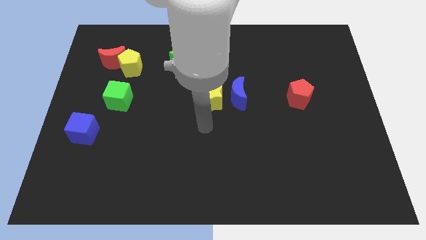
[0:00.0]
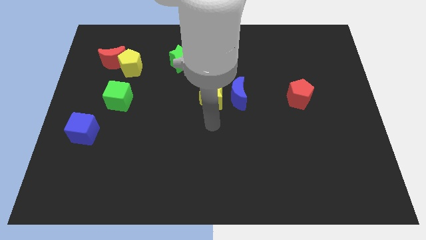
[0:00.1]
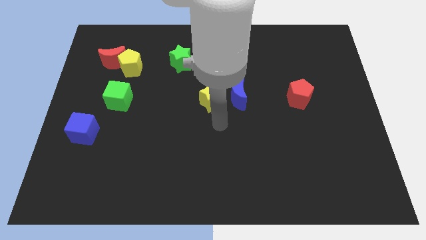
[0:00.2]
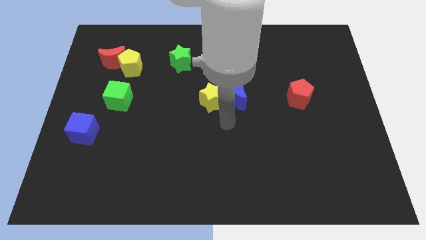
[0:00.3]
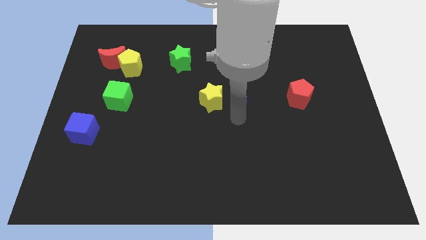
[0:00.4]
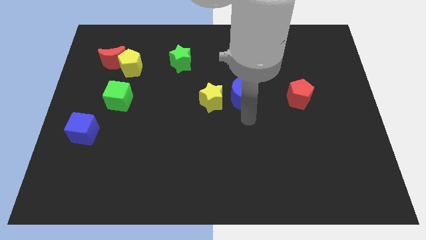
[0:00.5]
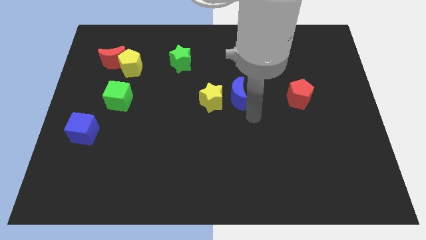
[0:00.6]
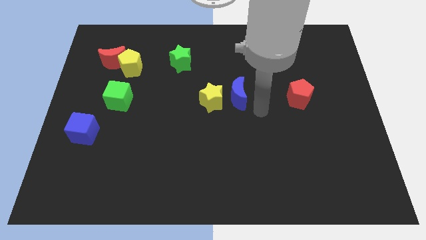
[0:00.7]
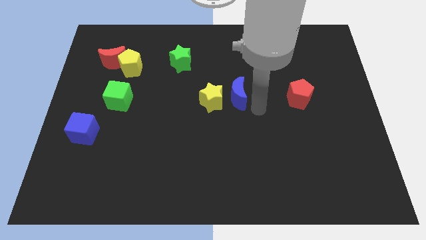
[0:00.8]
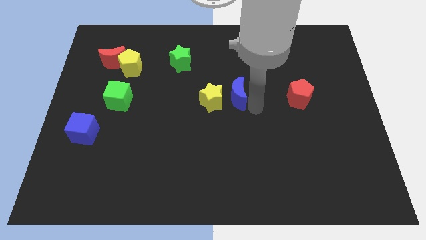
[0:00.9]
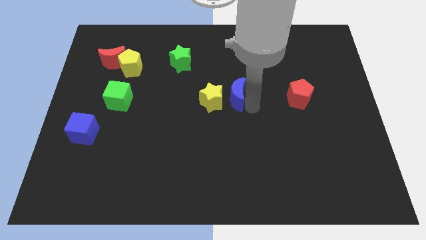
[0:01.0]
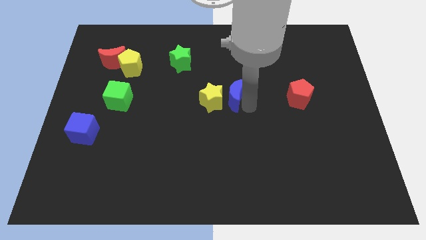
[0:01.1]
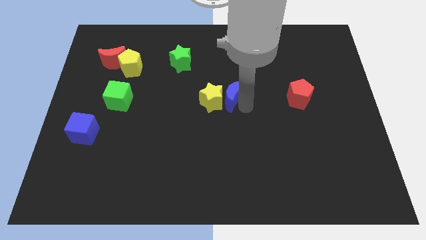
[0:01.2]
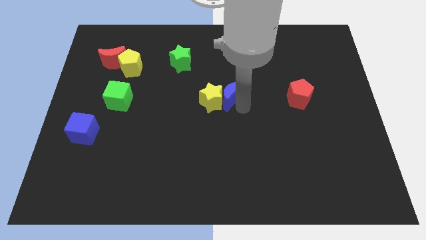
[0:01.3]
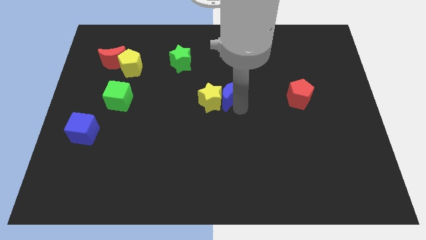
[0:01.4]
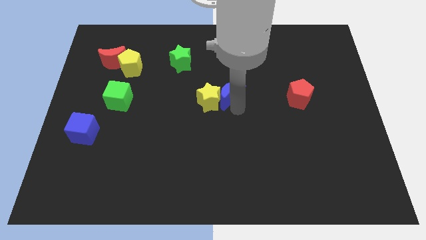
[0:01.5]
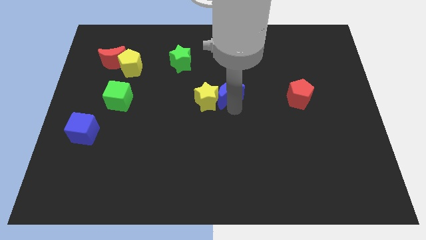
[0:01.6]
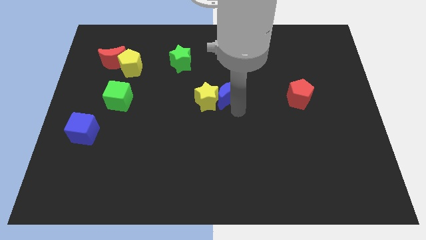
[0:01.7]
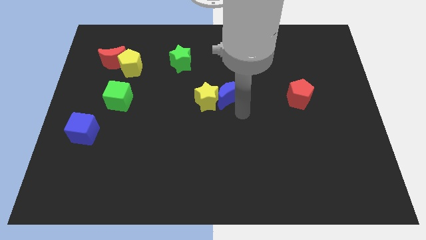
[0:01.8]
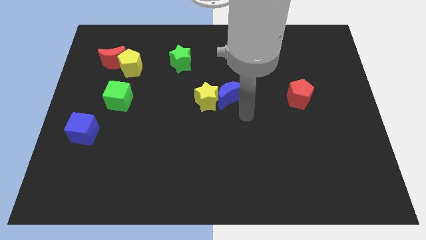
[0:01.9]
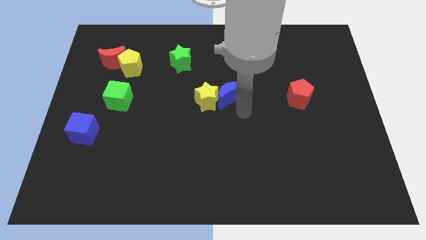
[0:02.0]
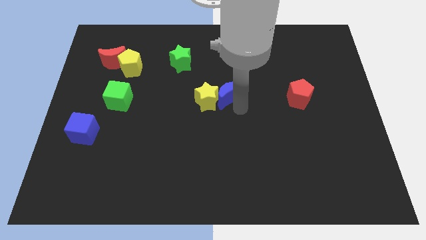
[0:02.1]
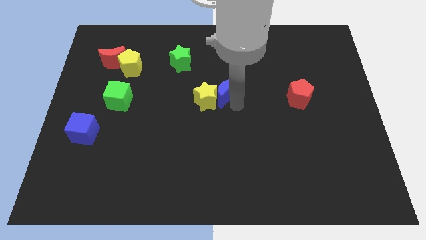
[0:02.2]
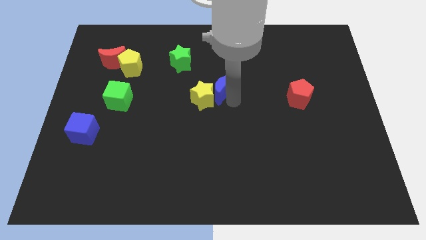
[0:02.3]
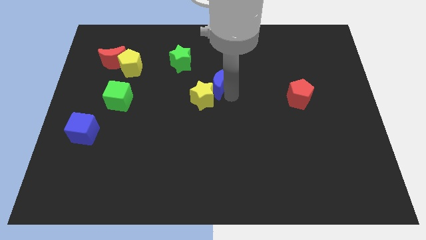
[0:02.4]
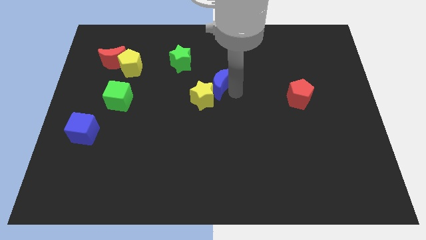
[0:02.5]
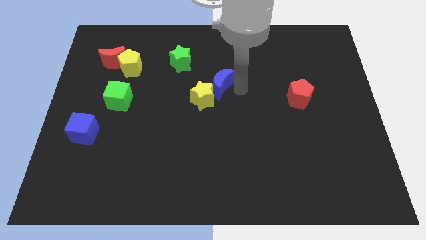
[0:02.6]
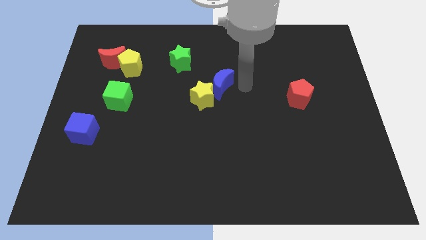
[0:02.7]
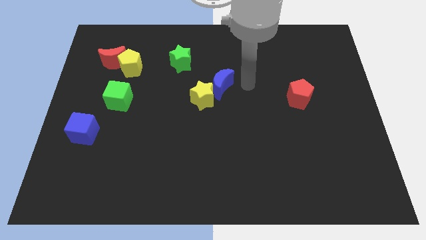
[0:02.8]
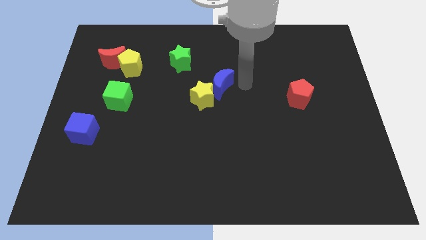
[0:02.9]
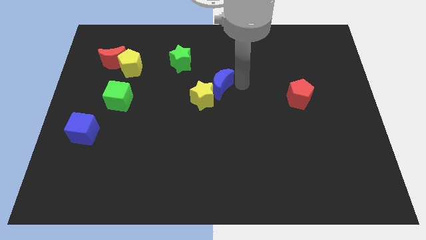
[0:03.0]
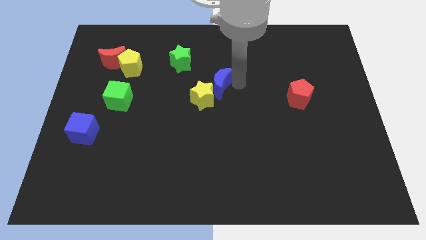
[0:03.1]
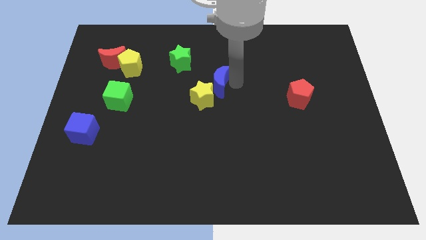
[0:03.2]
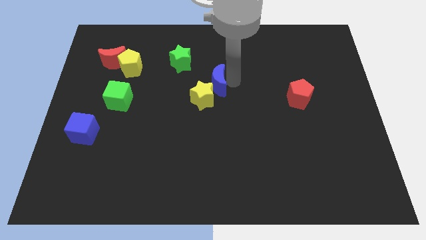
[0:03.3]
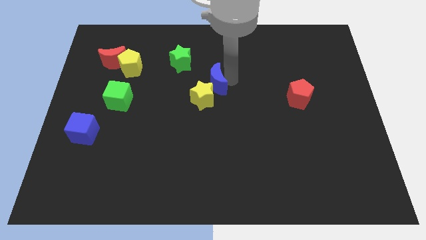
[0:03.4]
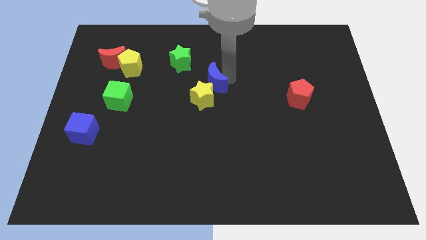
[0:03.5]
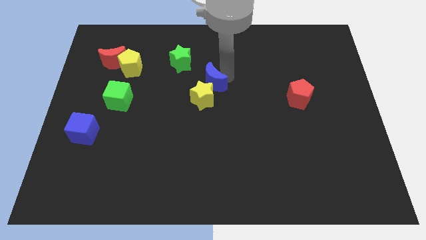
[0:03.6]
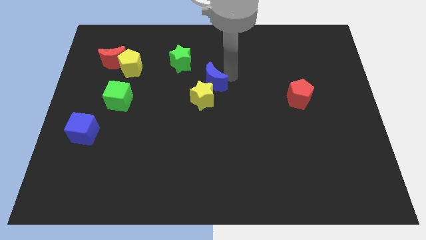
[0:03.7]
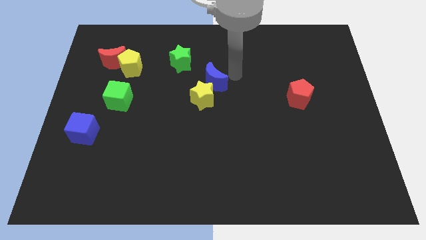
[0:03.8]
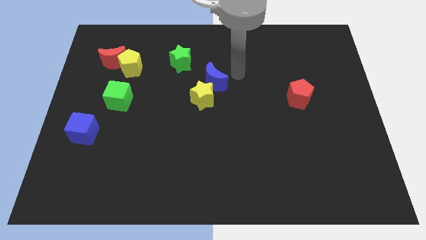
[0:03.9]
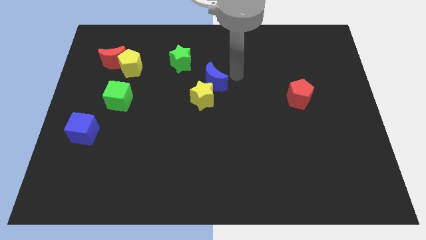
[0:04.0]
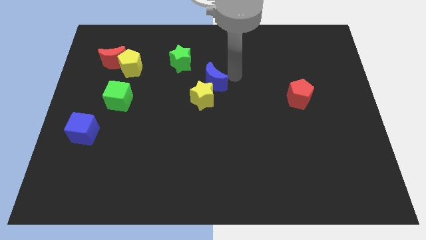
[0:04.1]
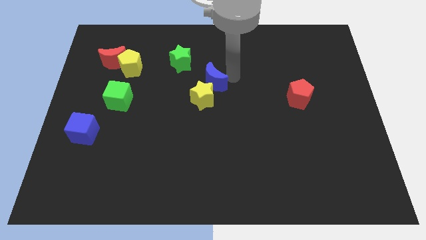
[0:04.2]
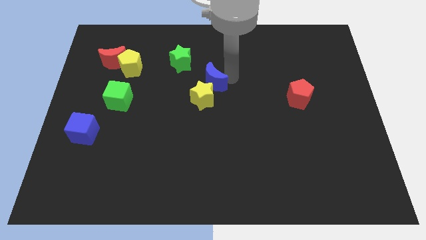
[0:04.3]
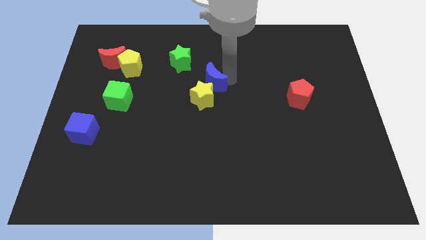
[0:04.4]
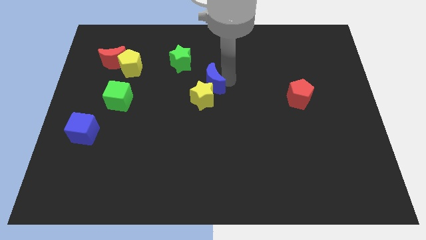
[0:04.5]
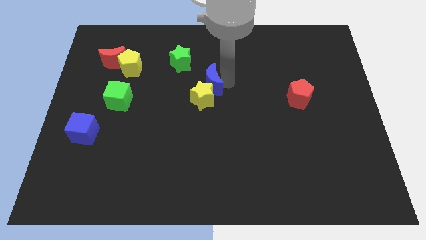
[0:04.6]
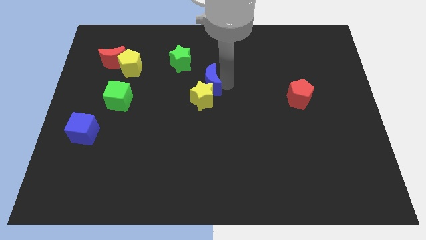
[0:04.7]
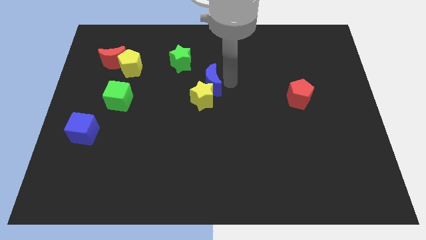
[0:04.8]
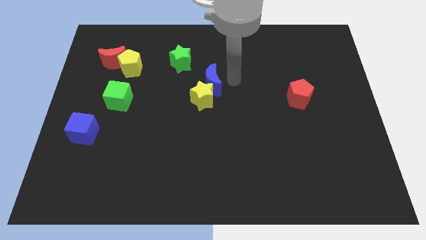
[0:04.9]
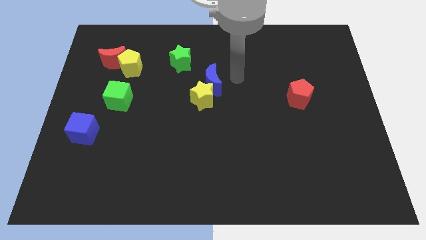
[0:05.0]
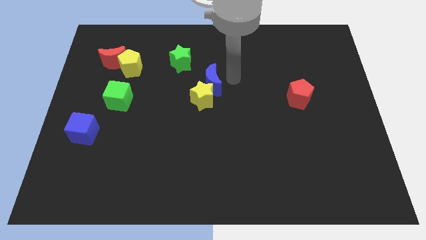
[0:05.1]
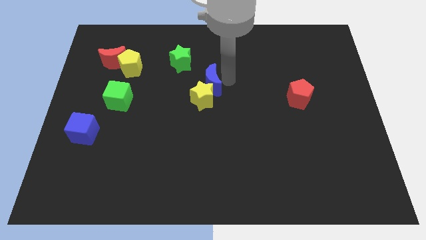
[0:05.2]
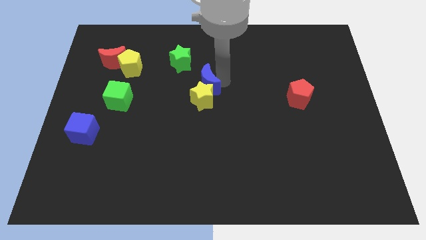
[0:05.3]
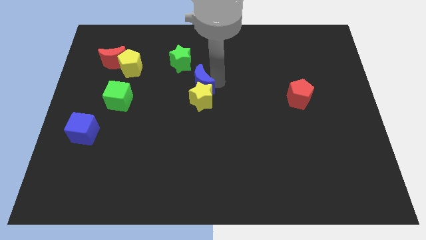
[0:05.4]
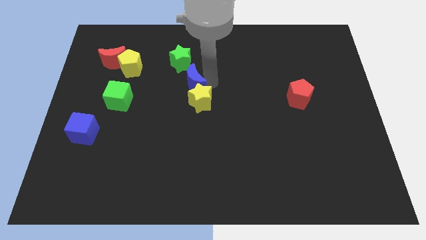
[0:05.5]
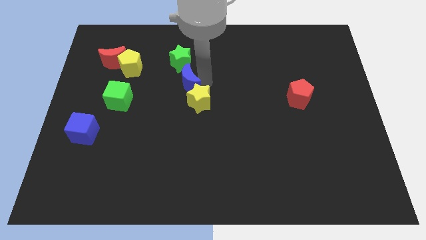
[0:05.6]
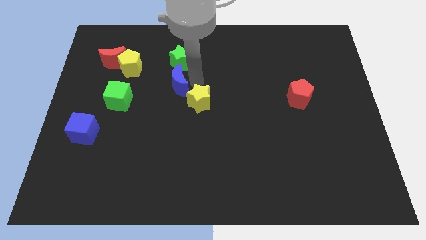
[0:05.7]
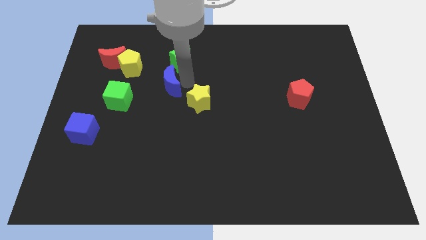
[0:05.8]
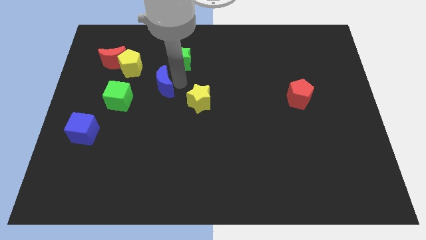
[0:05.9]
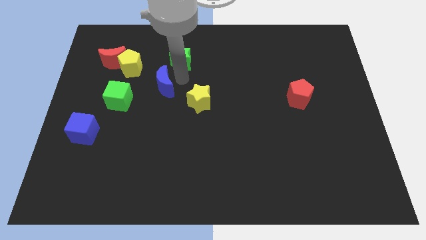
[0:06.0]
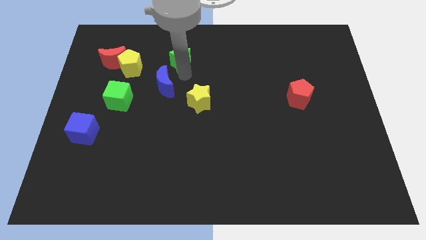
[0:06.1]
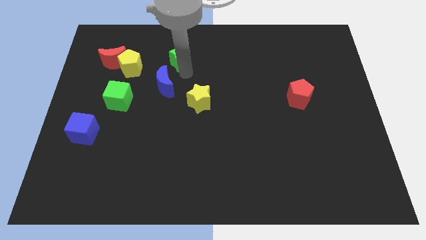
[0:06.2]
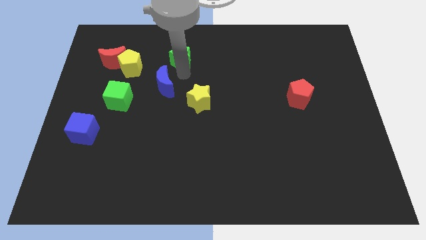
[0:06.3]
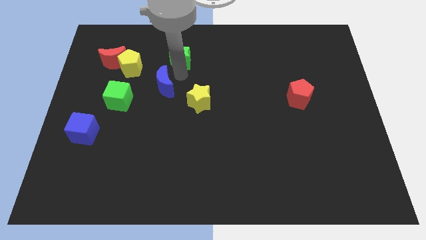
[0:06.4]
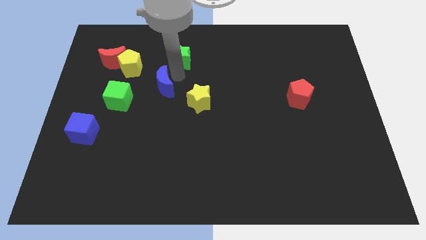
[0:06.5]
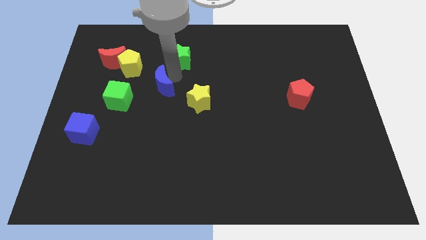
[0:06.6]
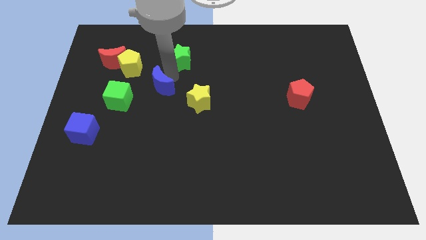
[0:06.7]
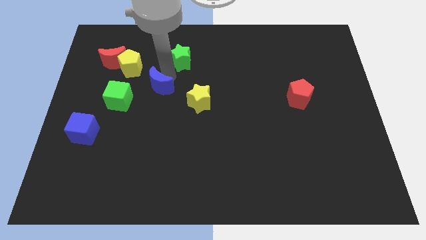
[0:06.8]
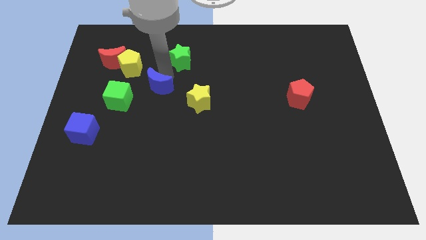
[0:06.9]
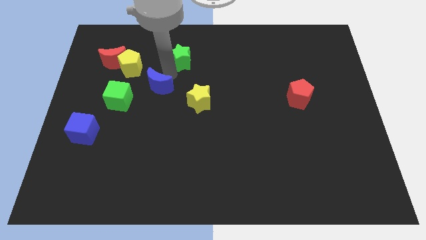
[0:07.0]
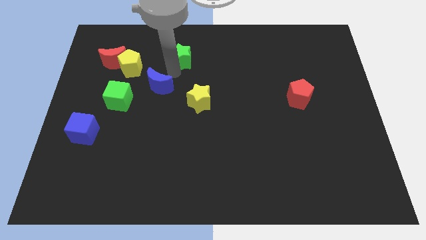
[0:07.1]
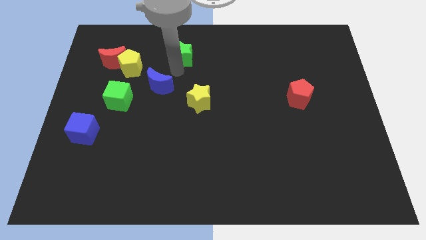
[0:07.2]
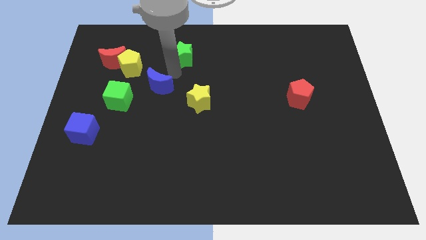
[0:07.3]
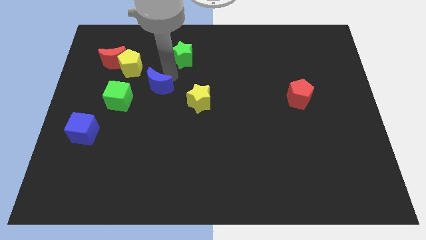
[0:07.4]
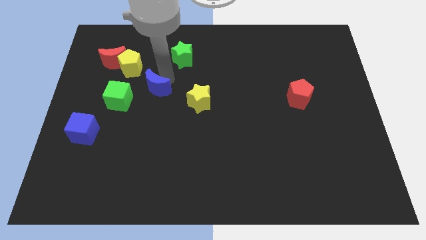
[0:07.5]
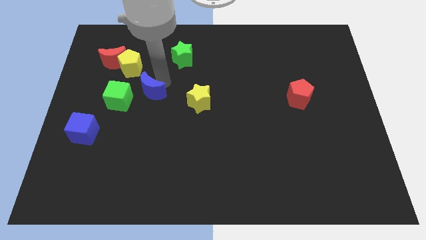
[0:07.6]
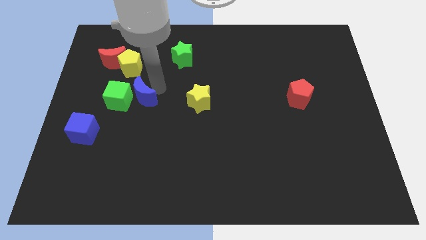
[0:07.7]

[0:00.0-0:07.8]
push the blue moon towards the green cube
